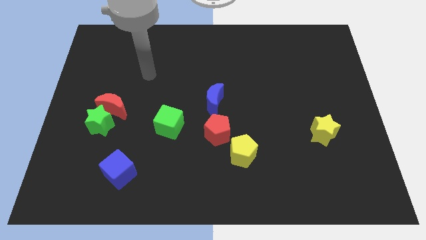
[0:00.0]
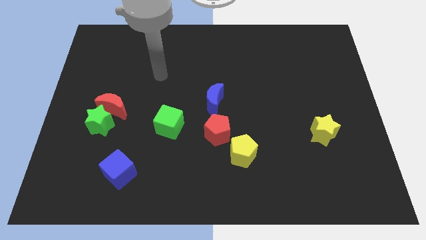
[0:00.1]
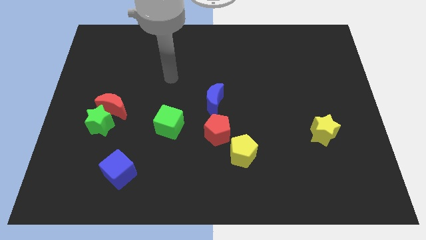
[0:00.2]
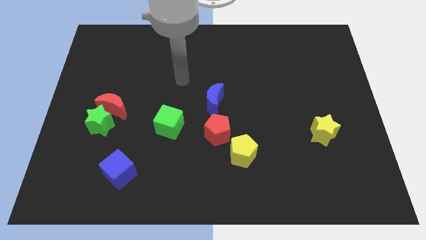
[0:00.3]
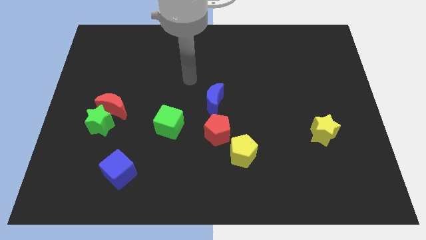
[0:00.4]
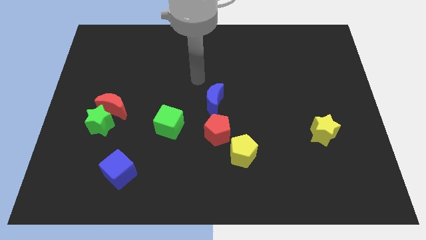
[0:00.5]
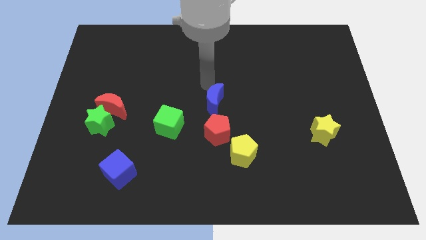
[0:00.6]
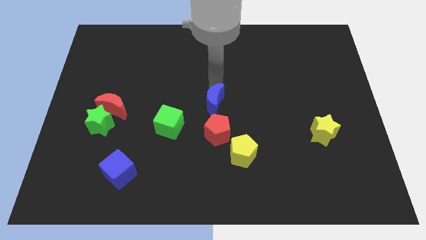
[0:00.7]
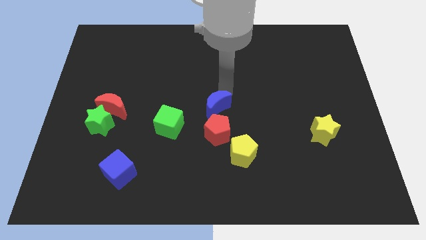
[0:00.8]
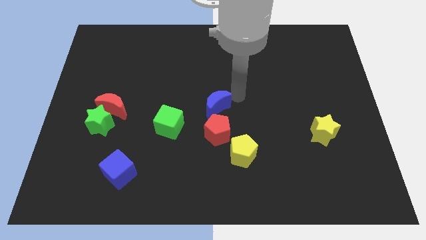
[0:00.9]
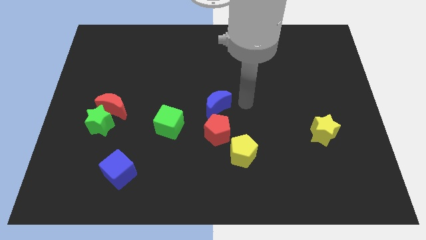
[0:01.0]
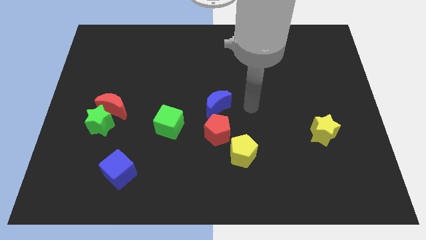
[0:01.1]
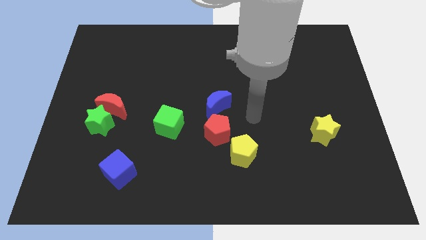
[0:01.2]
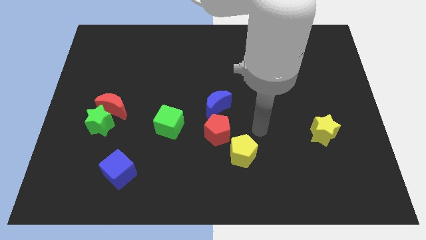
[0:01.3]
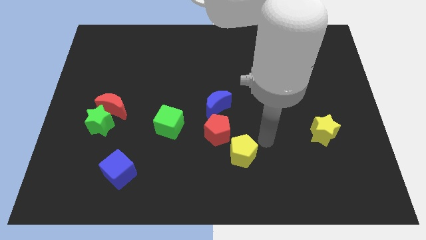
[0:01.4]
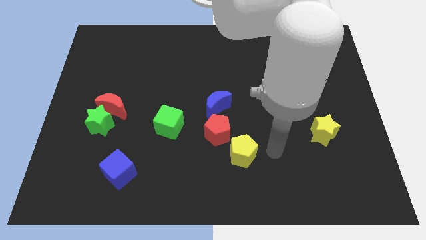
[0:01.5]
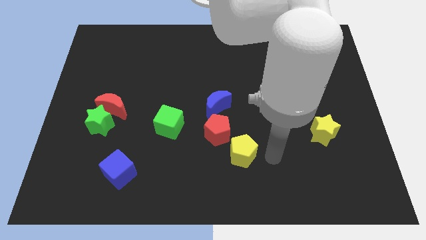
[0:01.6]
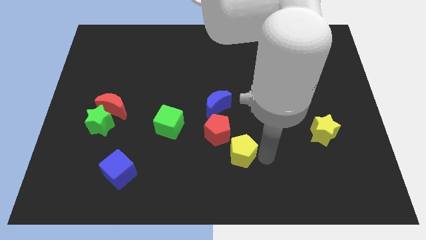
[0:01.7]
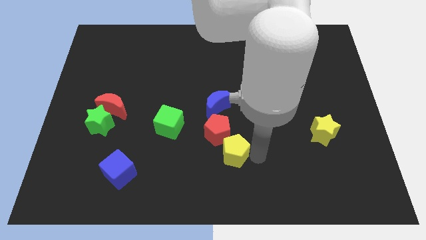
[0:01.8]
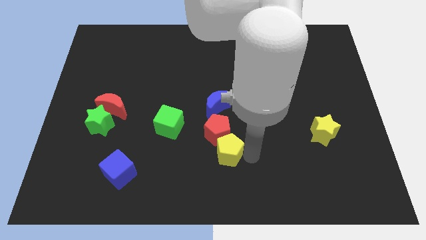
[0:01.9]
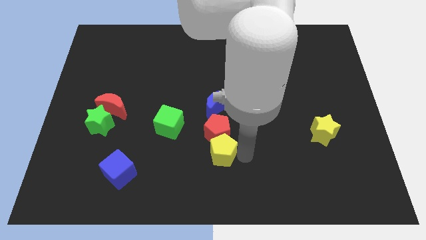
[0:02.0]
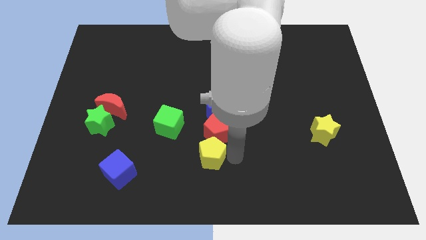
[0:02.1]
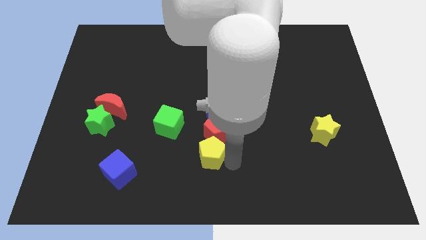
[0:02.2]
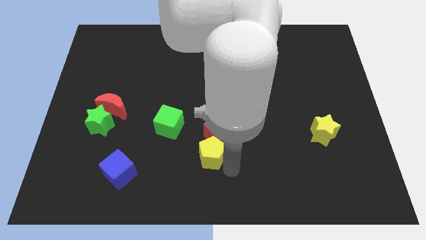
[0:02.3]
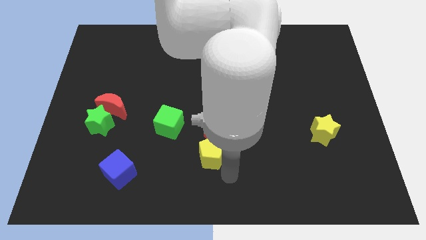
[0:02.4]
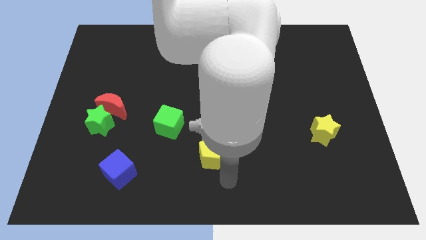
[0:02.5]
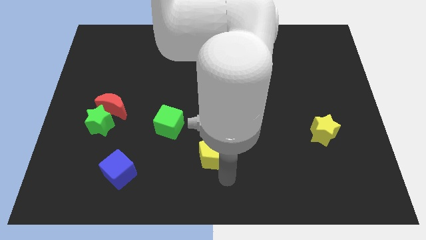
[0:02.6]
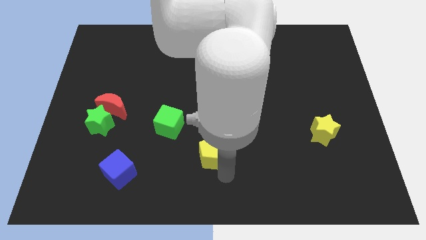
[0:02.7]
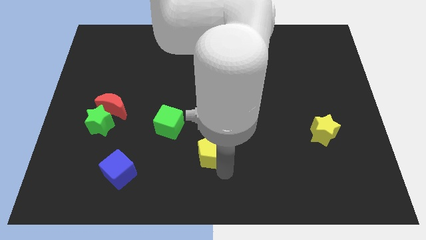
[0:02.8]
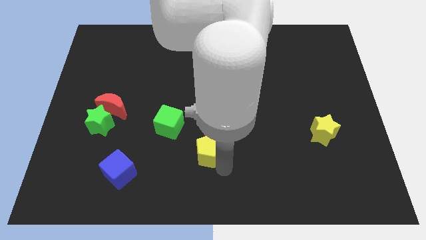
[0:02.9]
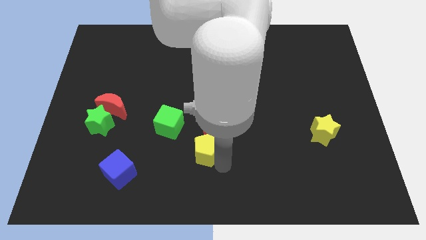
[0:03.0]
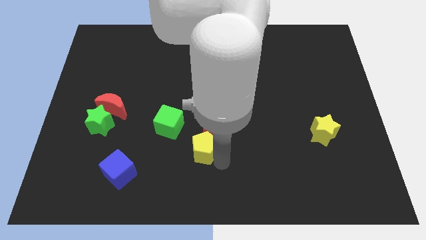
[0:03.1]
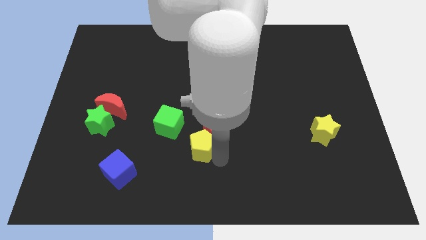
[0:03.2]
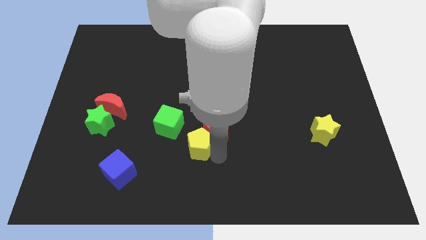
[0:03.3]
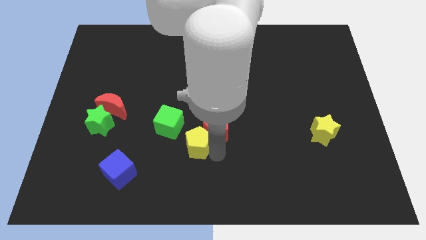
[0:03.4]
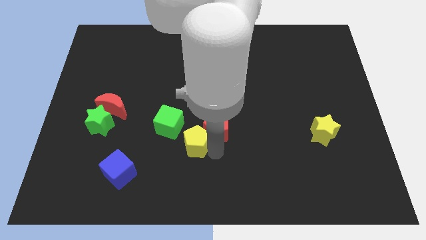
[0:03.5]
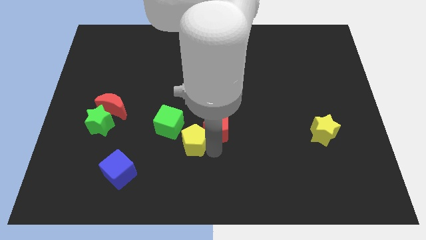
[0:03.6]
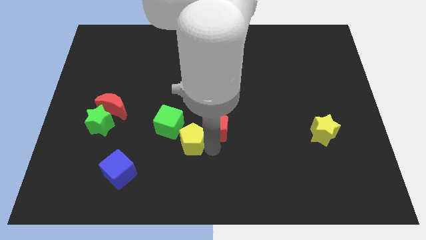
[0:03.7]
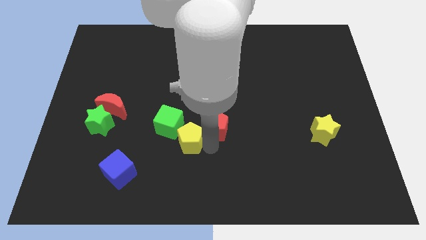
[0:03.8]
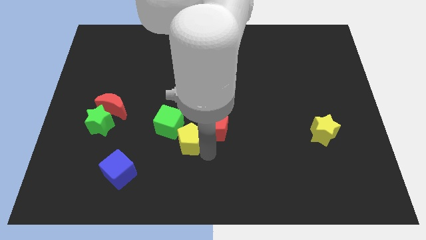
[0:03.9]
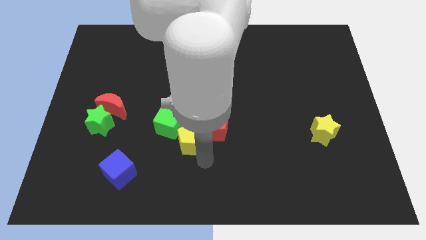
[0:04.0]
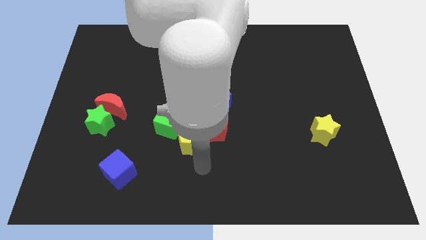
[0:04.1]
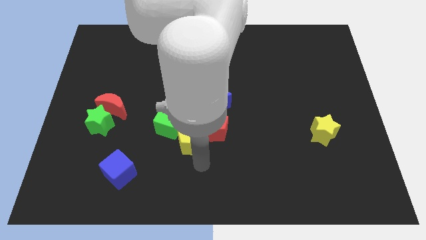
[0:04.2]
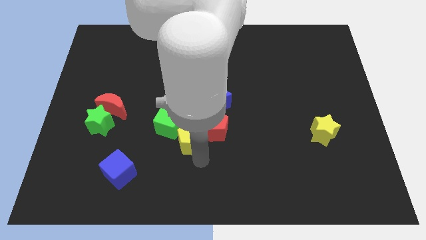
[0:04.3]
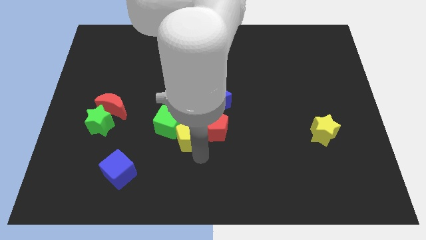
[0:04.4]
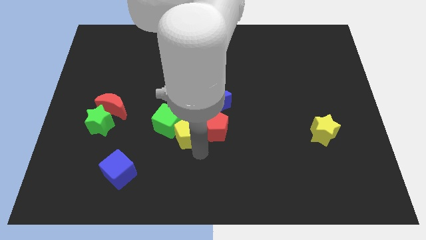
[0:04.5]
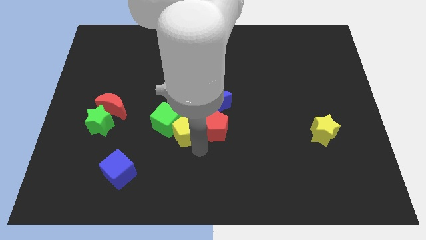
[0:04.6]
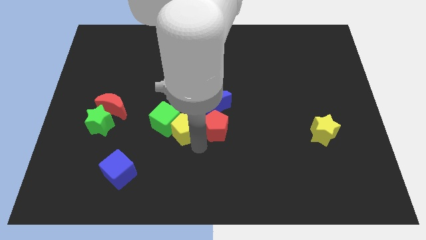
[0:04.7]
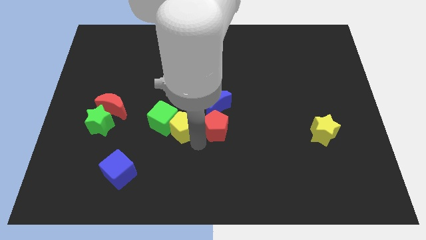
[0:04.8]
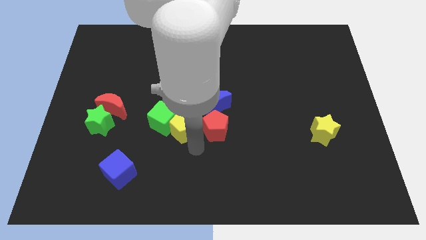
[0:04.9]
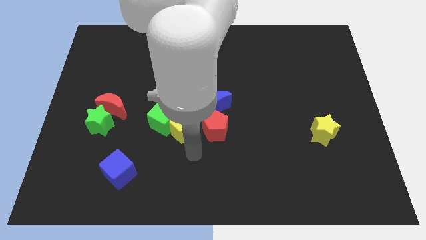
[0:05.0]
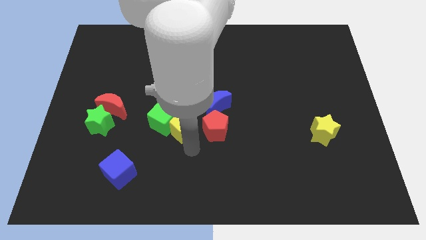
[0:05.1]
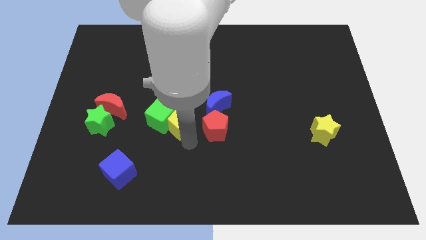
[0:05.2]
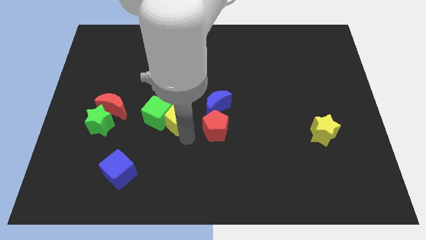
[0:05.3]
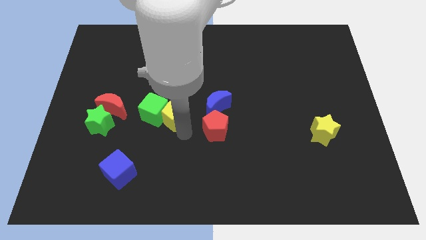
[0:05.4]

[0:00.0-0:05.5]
slide the yellow pentagon right of the red moon

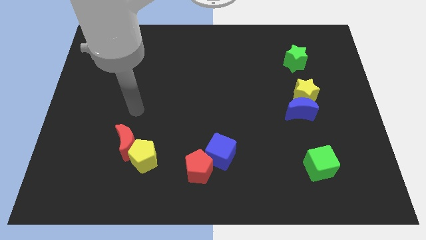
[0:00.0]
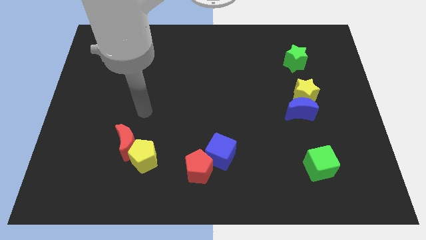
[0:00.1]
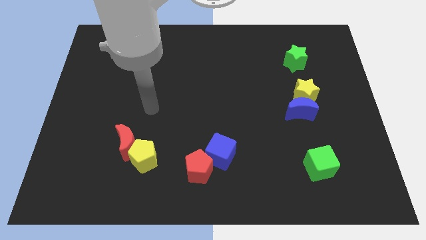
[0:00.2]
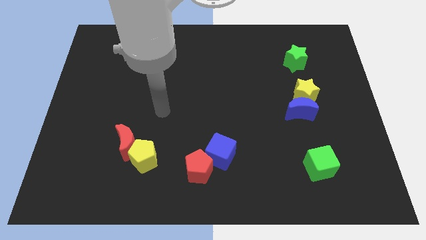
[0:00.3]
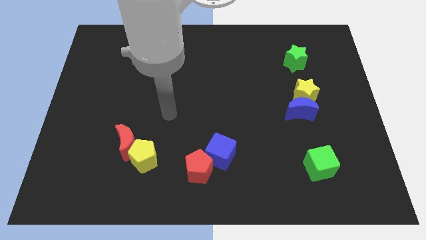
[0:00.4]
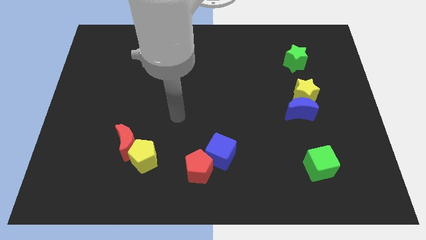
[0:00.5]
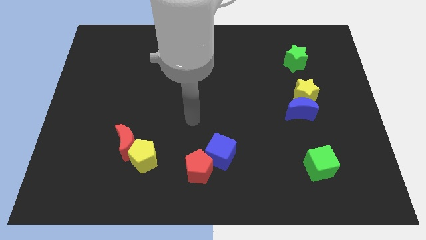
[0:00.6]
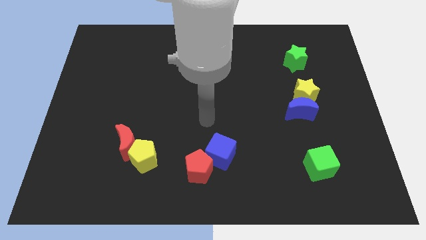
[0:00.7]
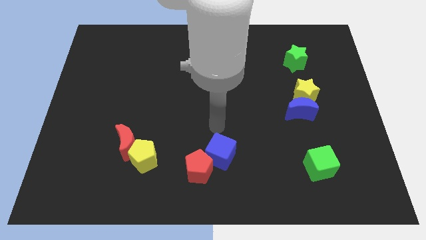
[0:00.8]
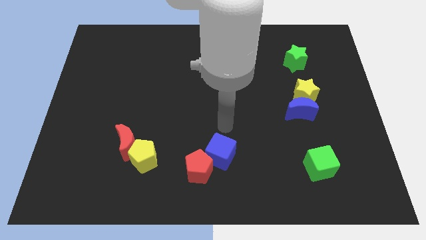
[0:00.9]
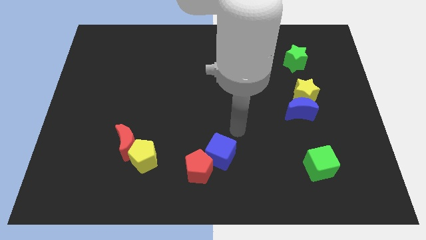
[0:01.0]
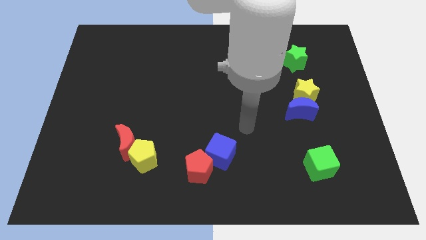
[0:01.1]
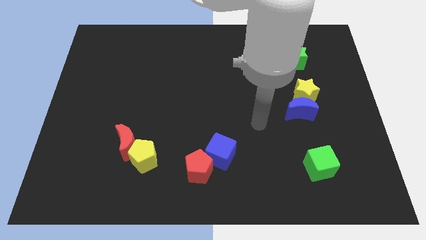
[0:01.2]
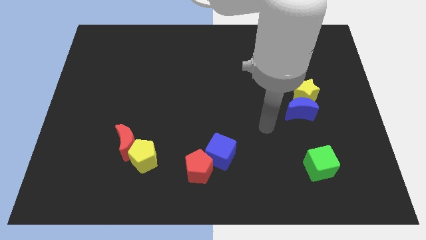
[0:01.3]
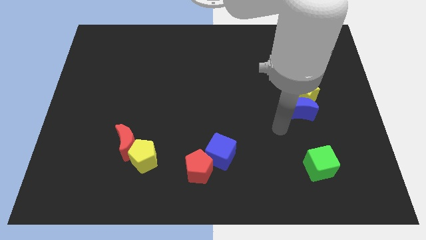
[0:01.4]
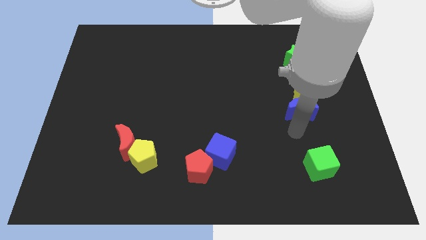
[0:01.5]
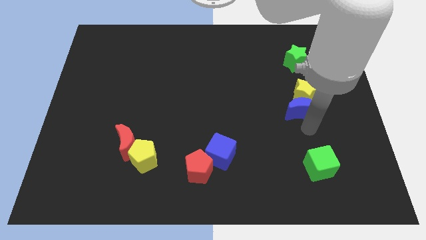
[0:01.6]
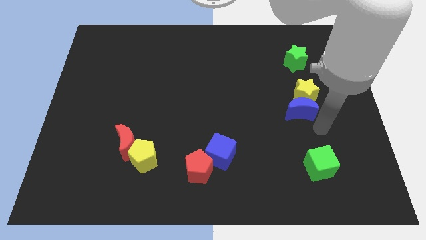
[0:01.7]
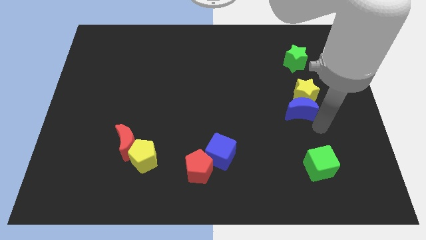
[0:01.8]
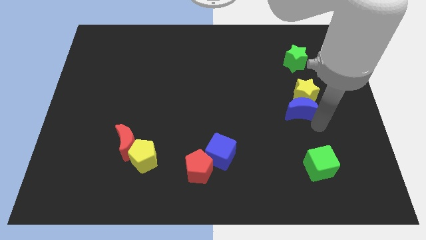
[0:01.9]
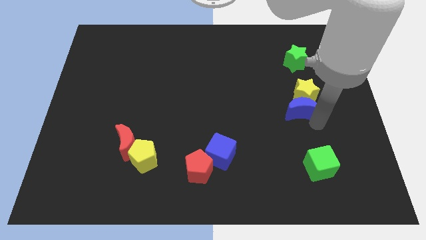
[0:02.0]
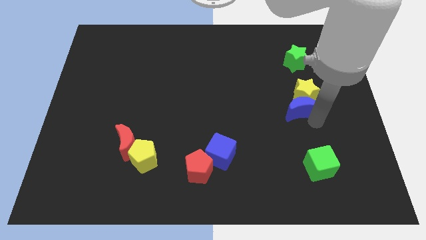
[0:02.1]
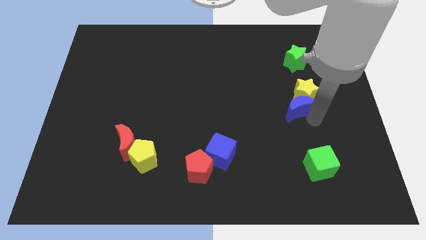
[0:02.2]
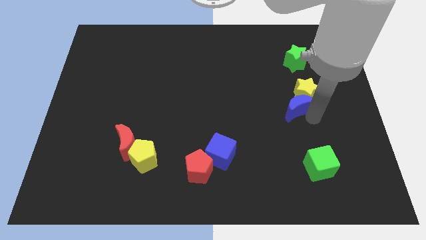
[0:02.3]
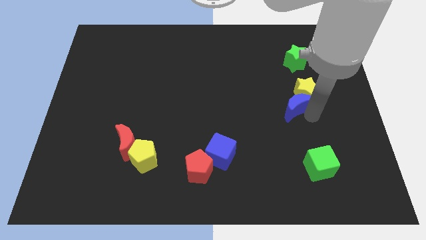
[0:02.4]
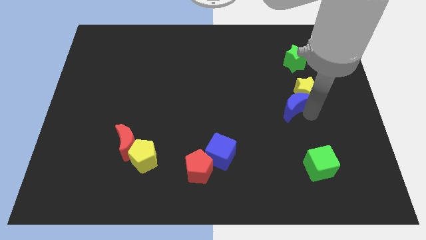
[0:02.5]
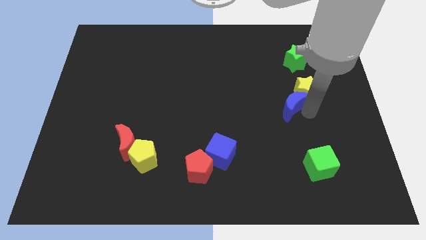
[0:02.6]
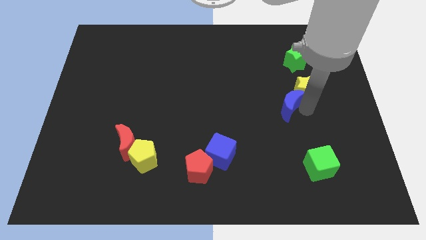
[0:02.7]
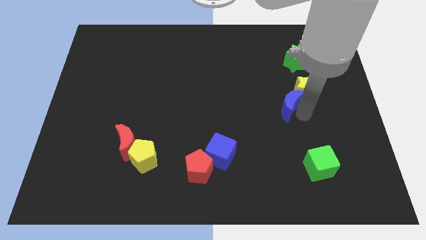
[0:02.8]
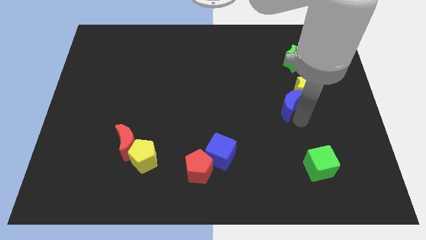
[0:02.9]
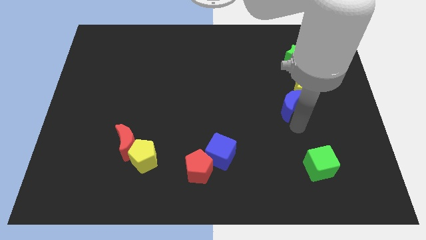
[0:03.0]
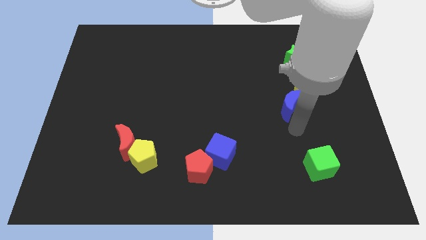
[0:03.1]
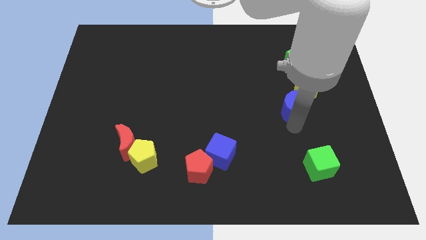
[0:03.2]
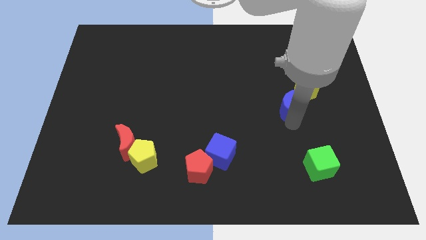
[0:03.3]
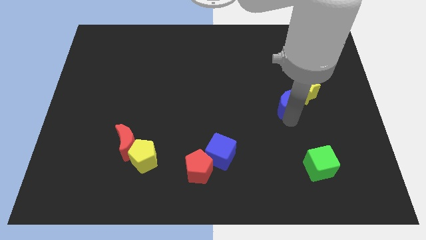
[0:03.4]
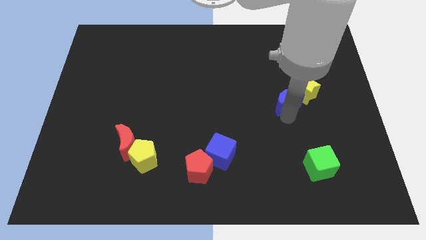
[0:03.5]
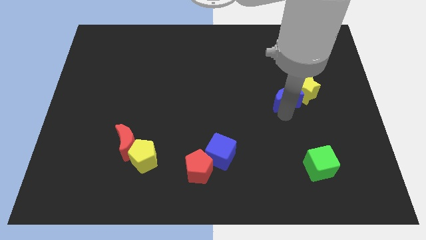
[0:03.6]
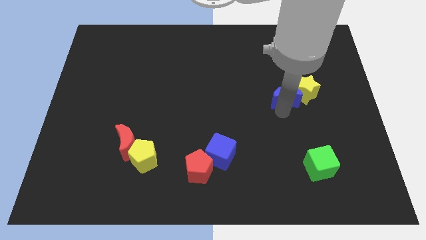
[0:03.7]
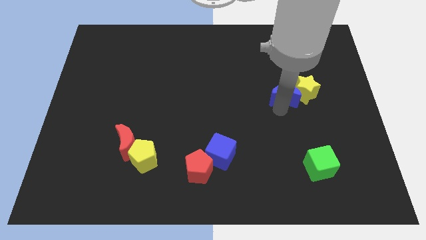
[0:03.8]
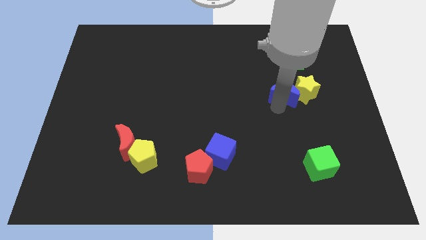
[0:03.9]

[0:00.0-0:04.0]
slide the blue moon to the top left side of the yellow star
